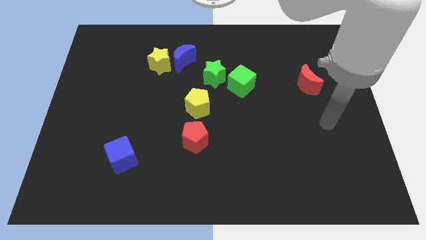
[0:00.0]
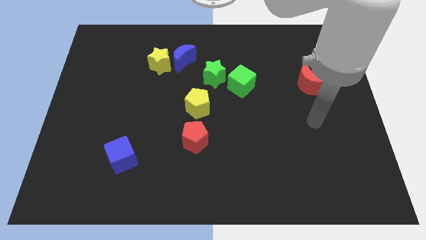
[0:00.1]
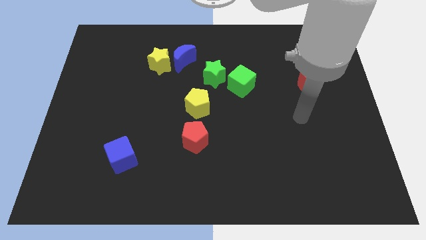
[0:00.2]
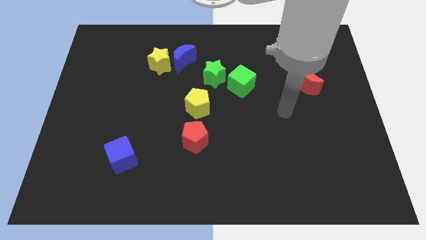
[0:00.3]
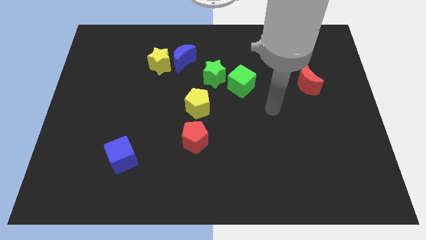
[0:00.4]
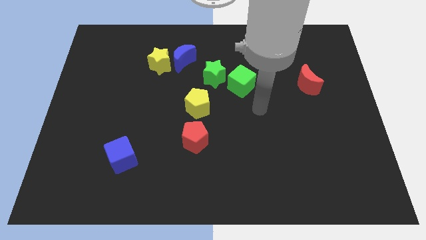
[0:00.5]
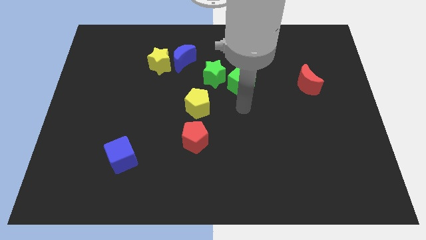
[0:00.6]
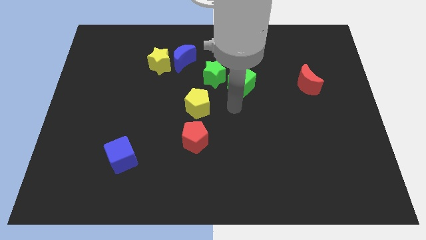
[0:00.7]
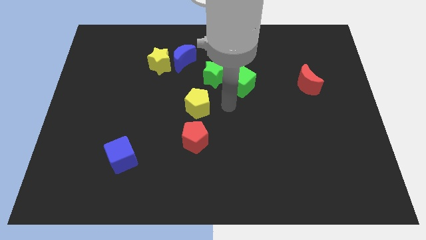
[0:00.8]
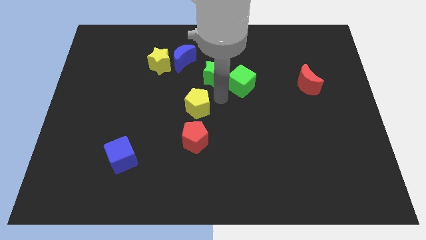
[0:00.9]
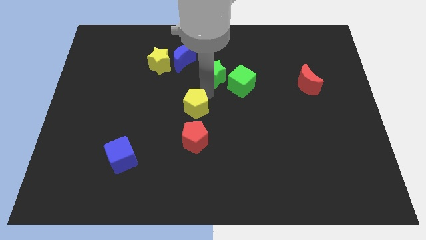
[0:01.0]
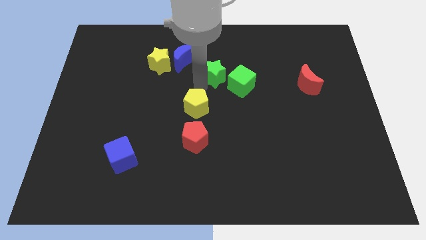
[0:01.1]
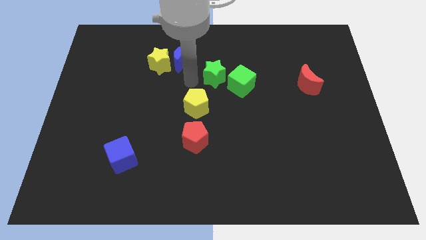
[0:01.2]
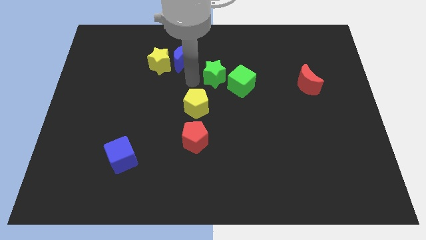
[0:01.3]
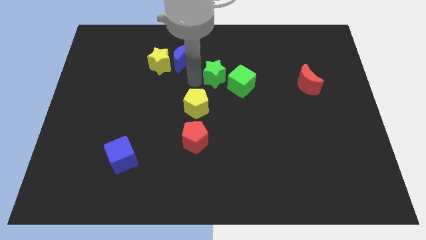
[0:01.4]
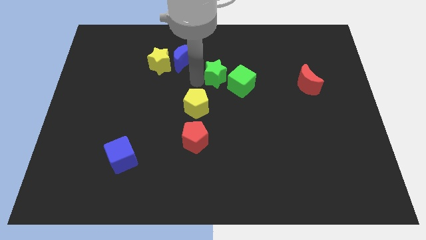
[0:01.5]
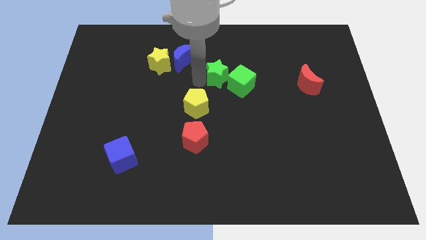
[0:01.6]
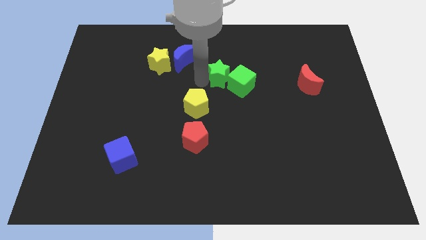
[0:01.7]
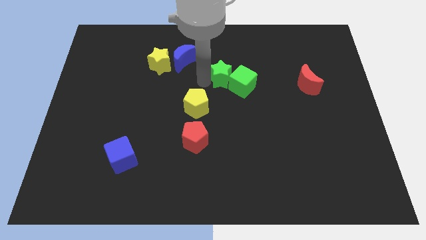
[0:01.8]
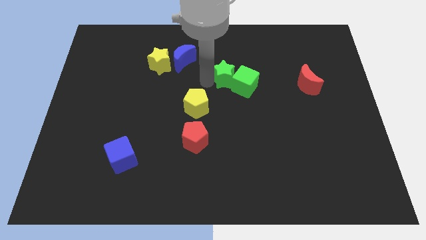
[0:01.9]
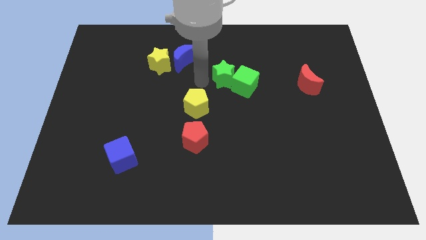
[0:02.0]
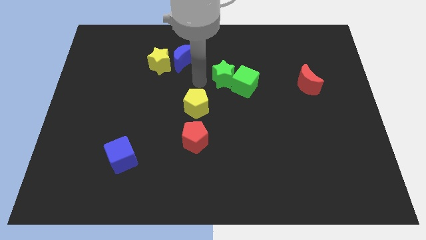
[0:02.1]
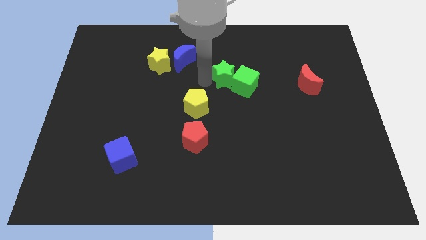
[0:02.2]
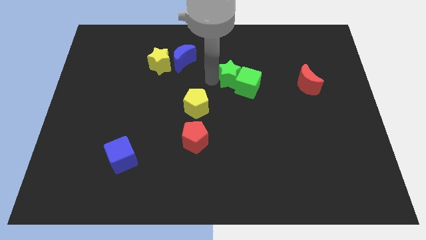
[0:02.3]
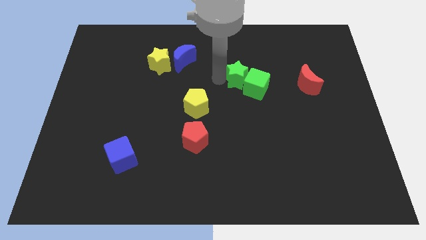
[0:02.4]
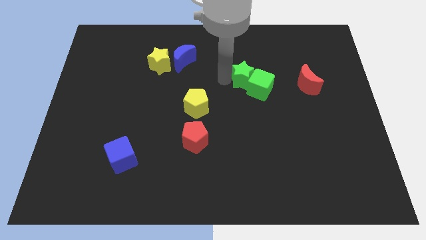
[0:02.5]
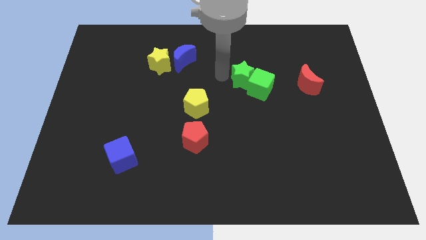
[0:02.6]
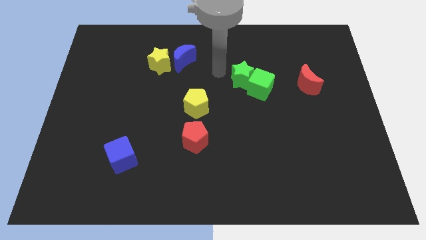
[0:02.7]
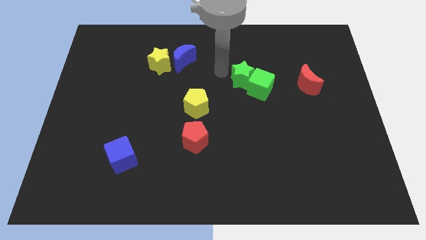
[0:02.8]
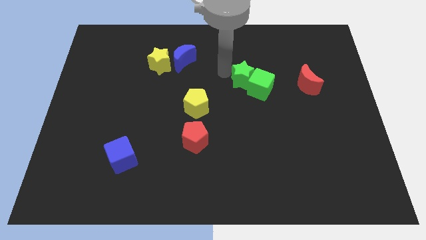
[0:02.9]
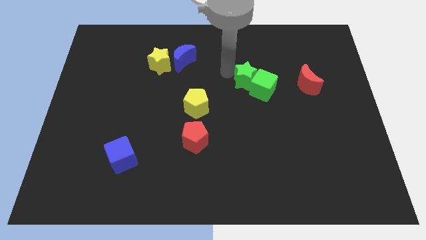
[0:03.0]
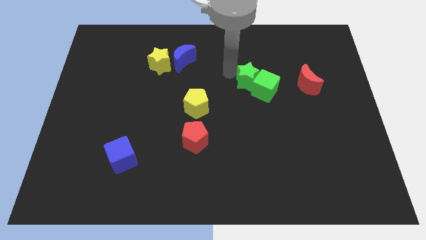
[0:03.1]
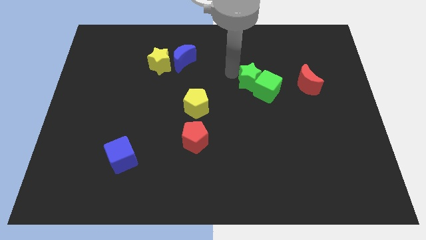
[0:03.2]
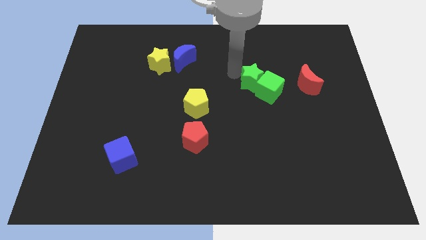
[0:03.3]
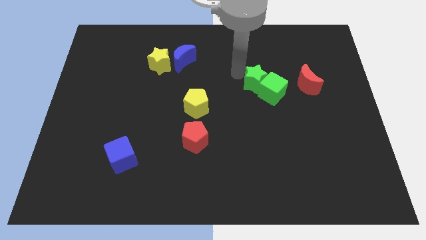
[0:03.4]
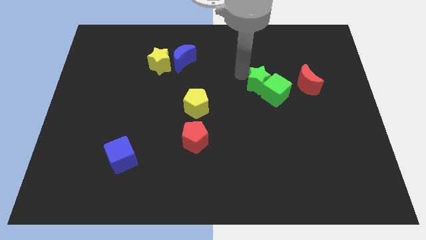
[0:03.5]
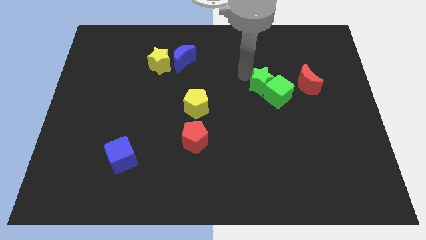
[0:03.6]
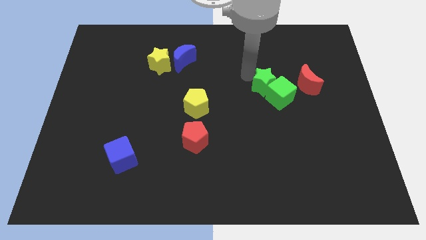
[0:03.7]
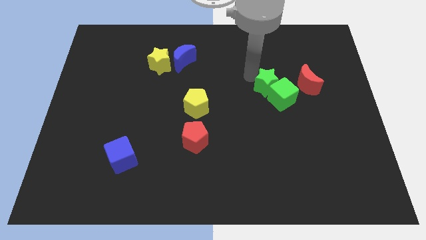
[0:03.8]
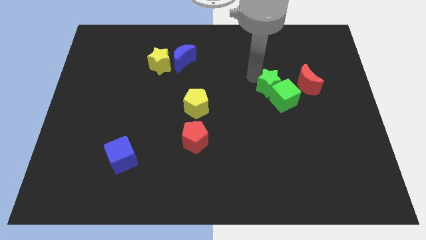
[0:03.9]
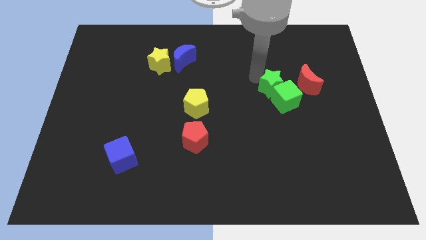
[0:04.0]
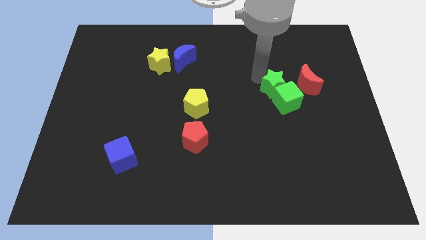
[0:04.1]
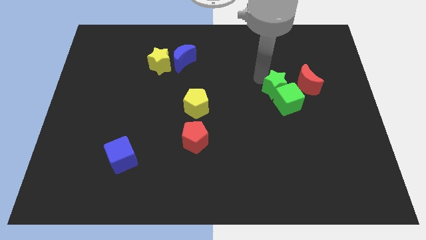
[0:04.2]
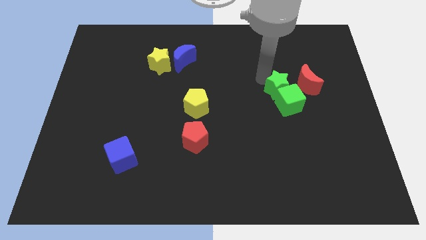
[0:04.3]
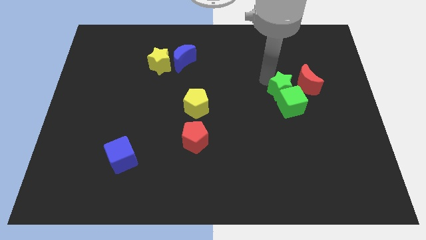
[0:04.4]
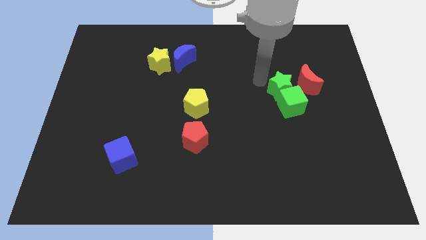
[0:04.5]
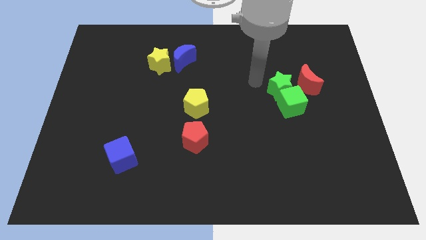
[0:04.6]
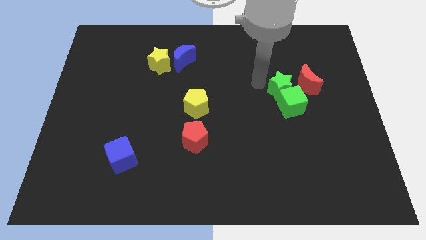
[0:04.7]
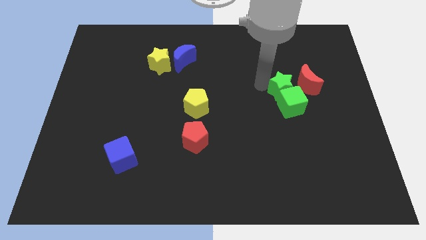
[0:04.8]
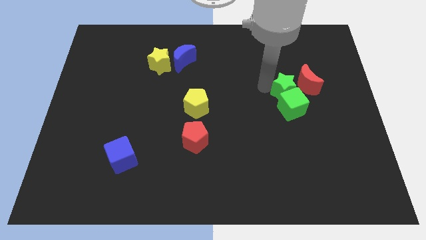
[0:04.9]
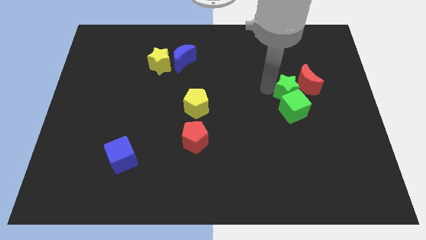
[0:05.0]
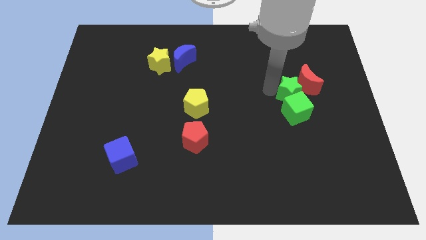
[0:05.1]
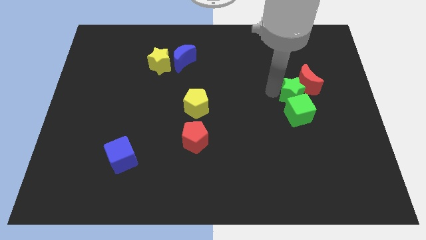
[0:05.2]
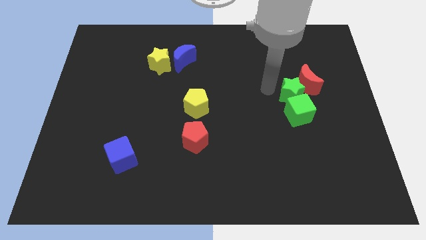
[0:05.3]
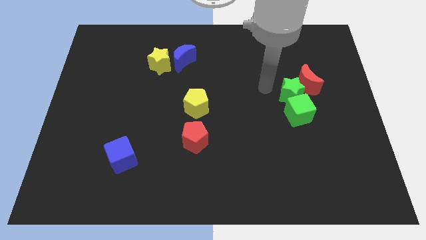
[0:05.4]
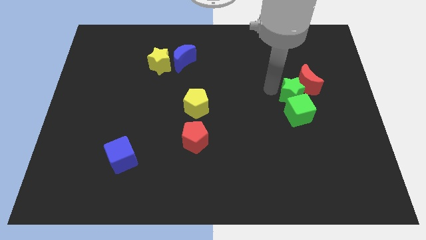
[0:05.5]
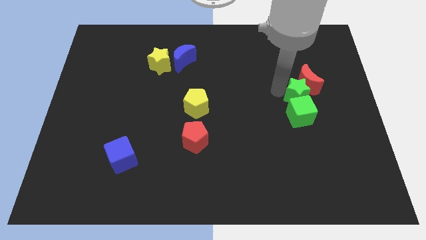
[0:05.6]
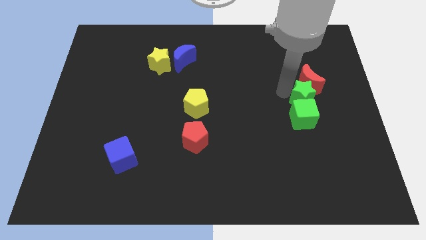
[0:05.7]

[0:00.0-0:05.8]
slide the green star diagonally down and to the right of the red moon

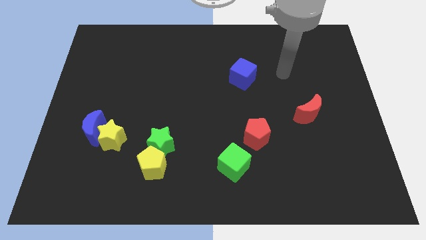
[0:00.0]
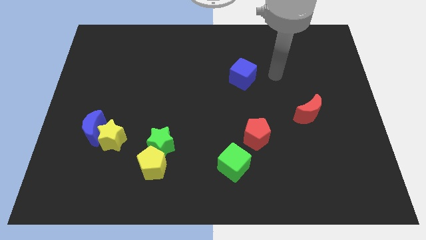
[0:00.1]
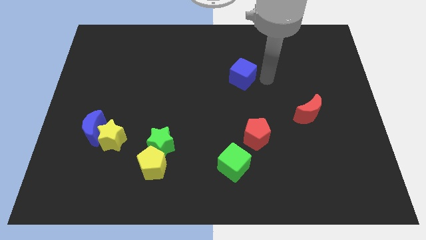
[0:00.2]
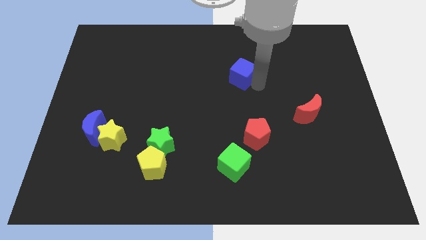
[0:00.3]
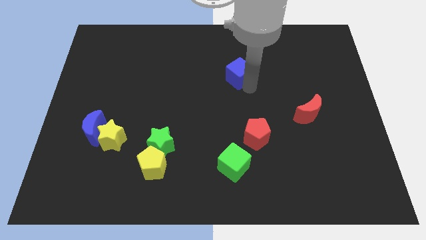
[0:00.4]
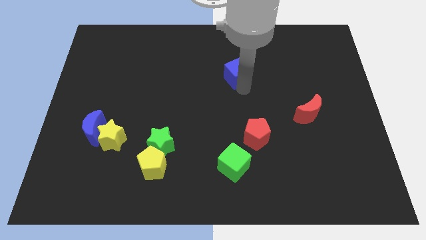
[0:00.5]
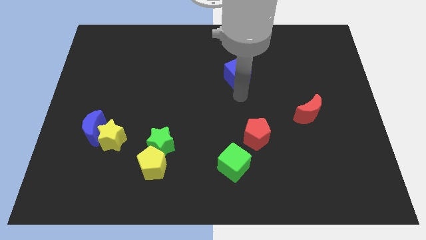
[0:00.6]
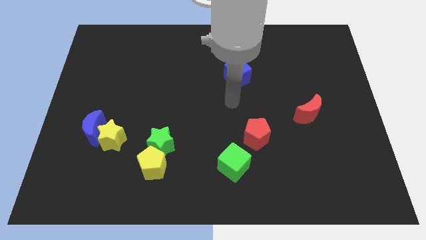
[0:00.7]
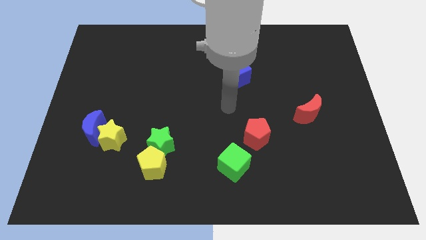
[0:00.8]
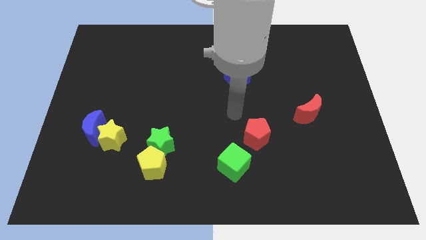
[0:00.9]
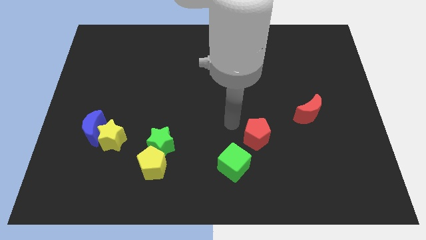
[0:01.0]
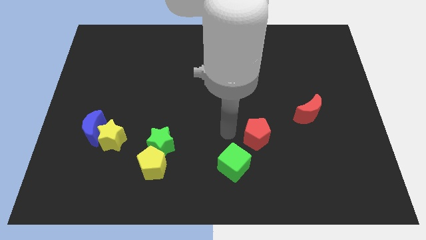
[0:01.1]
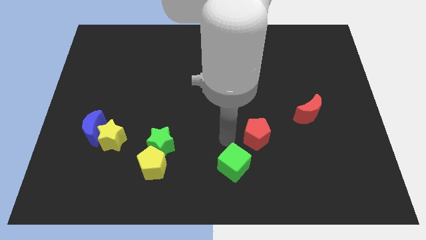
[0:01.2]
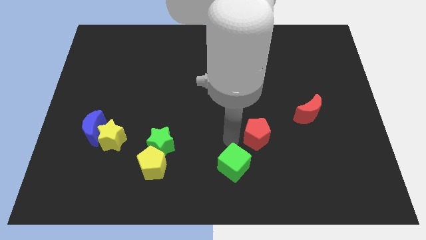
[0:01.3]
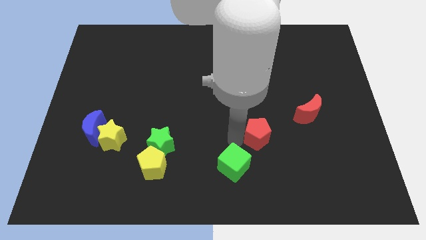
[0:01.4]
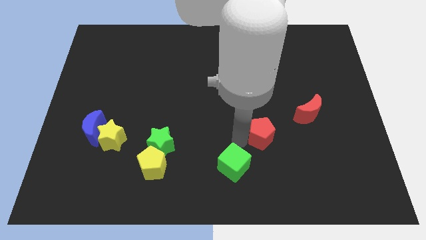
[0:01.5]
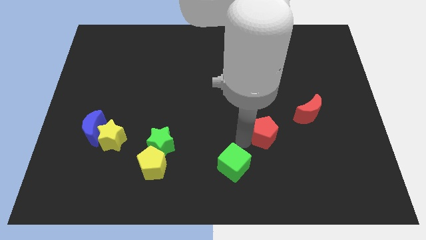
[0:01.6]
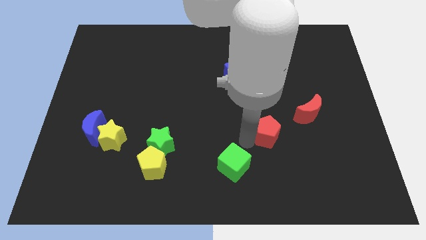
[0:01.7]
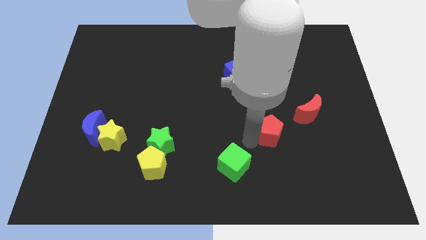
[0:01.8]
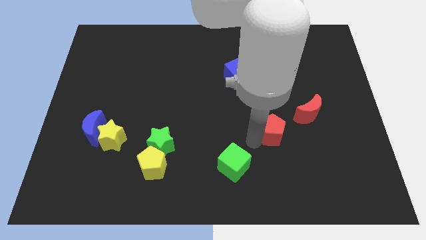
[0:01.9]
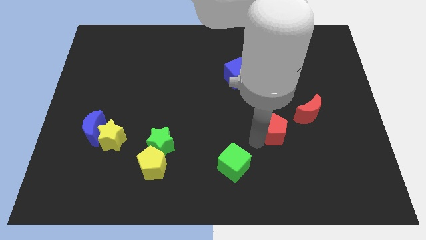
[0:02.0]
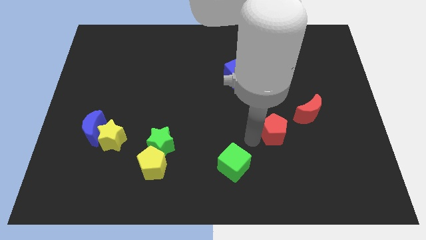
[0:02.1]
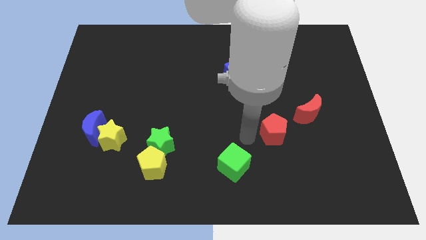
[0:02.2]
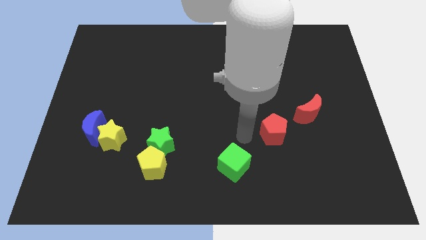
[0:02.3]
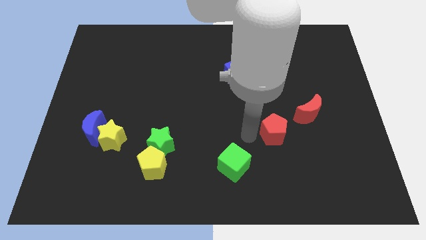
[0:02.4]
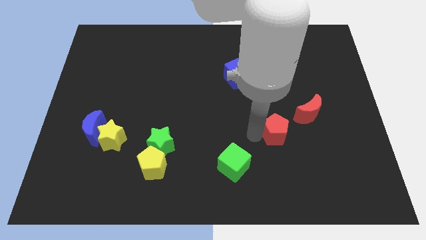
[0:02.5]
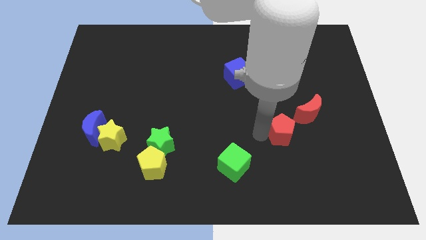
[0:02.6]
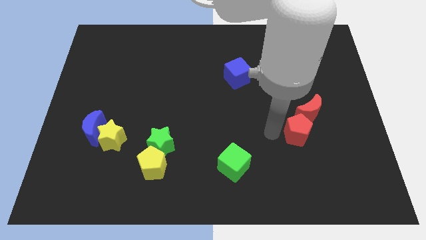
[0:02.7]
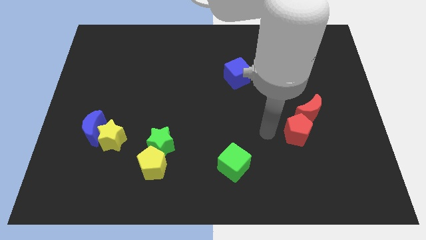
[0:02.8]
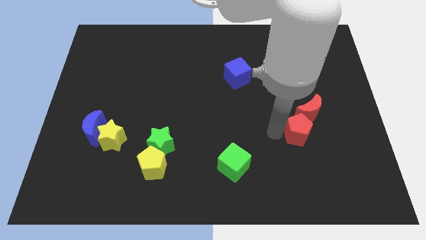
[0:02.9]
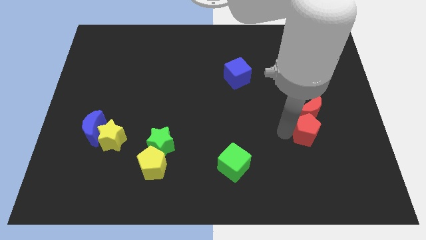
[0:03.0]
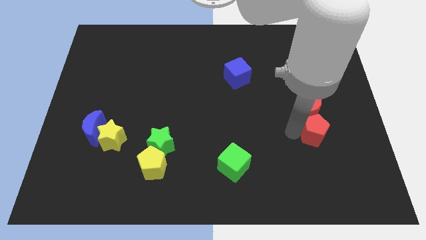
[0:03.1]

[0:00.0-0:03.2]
put the red pentagon to the bottom right of the red moon
